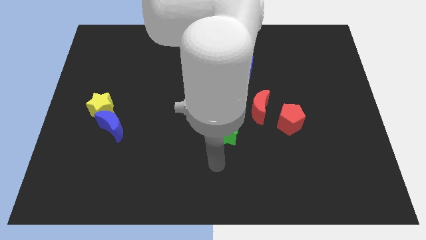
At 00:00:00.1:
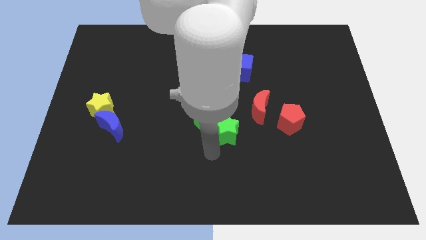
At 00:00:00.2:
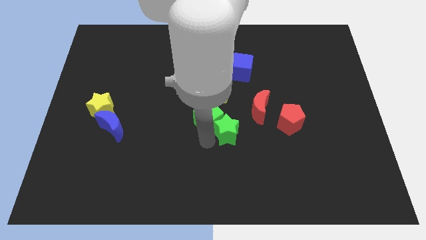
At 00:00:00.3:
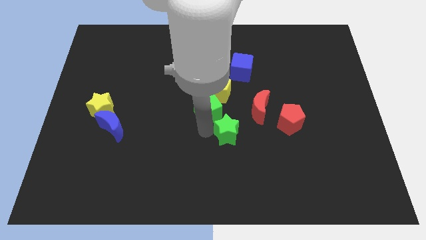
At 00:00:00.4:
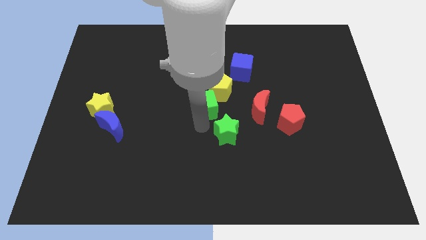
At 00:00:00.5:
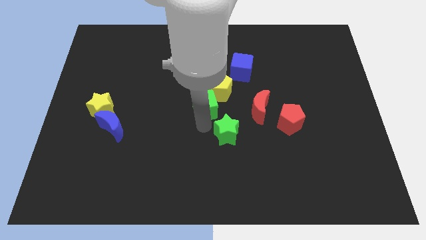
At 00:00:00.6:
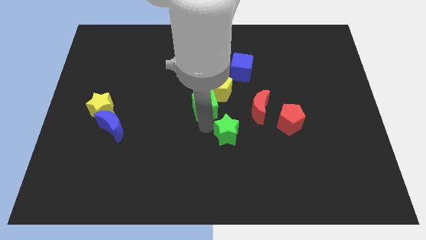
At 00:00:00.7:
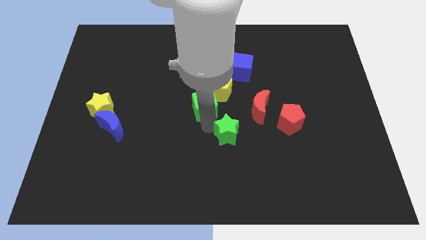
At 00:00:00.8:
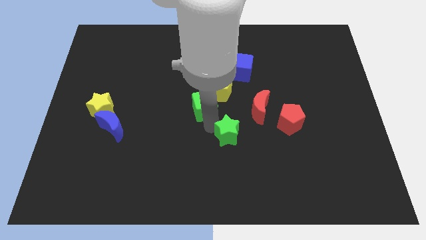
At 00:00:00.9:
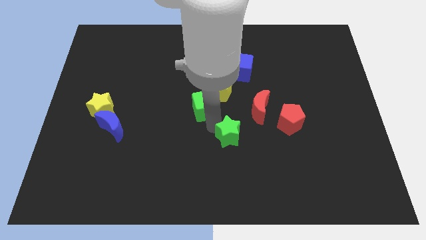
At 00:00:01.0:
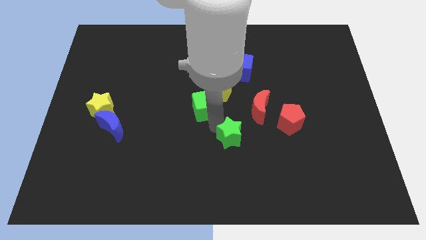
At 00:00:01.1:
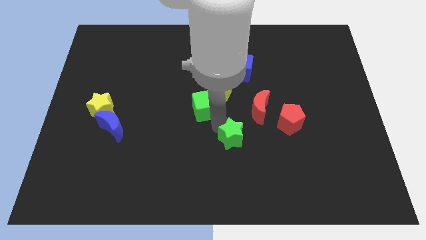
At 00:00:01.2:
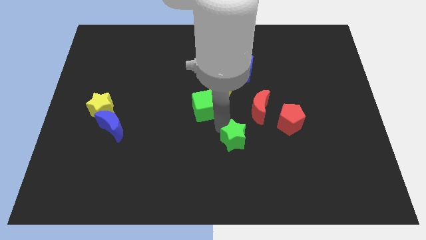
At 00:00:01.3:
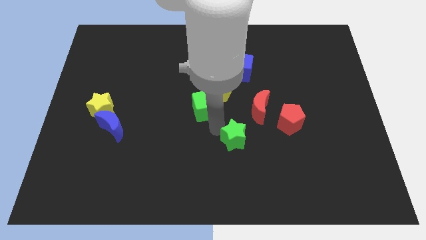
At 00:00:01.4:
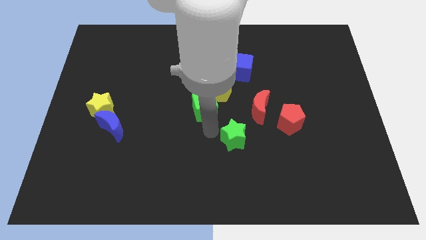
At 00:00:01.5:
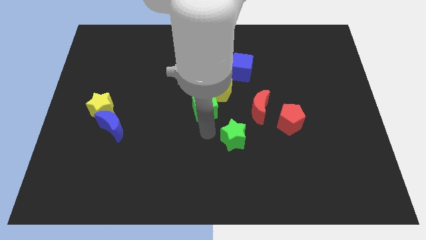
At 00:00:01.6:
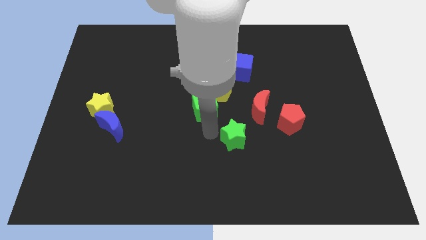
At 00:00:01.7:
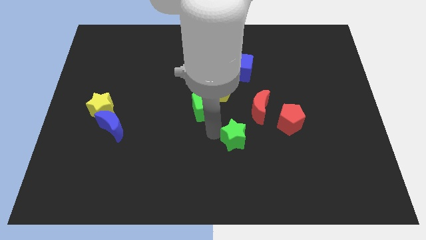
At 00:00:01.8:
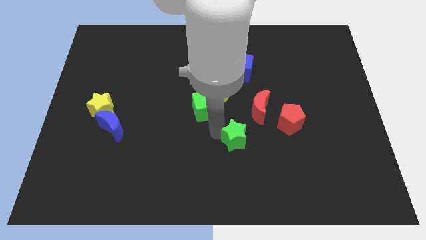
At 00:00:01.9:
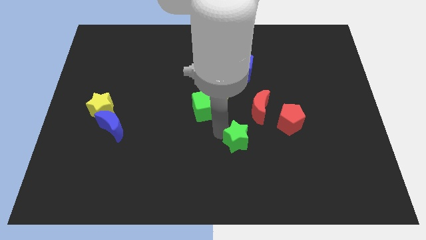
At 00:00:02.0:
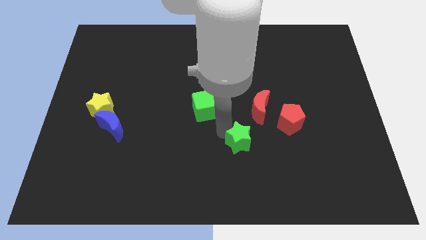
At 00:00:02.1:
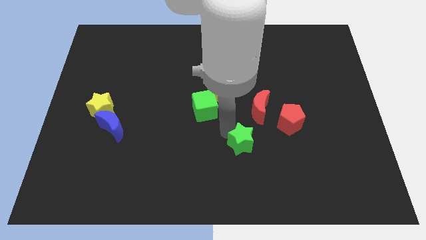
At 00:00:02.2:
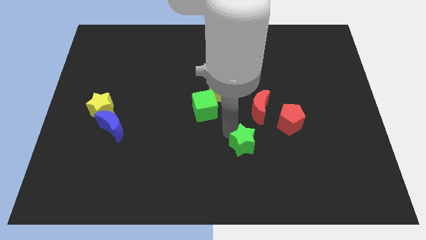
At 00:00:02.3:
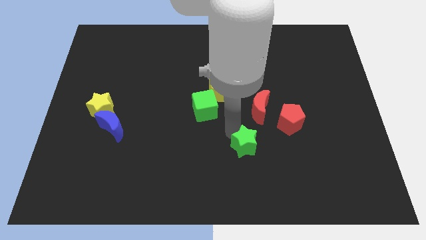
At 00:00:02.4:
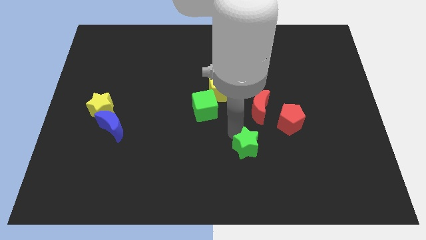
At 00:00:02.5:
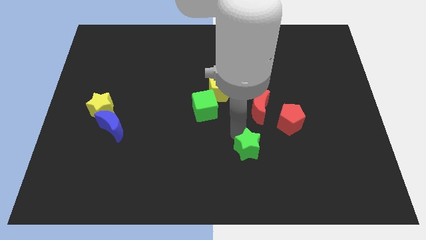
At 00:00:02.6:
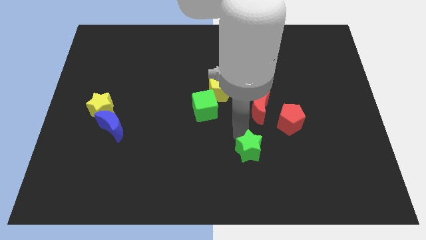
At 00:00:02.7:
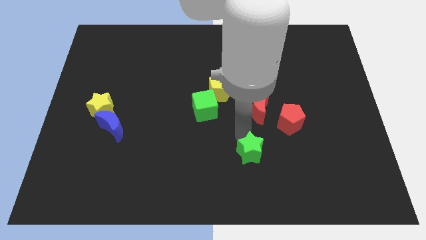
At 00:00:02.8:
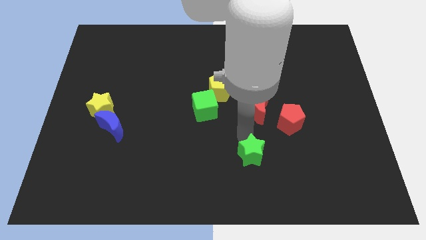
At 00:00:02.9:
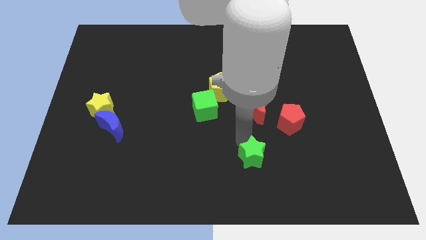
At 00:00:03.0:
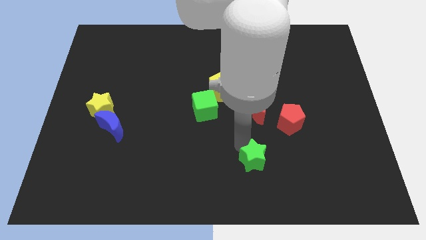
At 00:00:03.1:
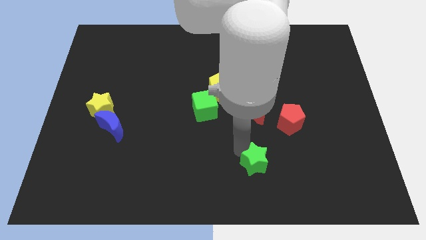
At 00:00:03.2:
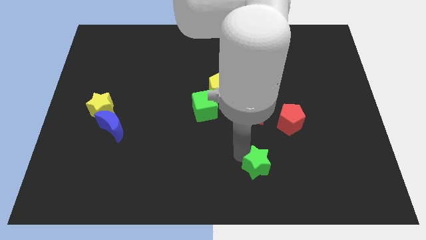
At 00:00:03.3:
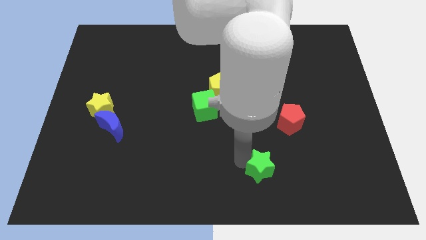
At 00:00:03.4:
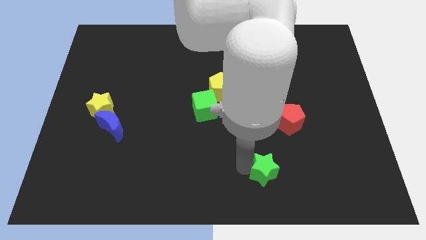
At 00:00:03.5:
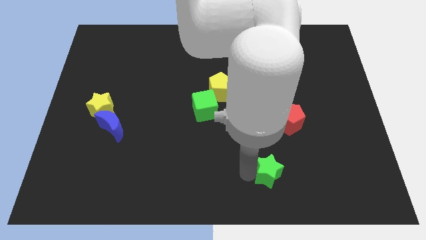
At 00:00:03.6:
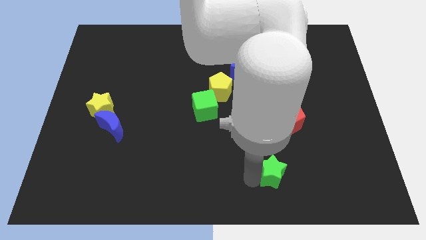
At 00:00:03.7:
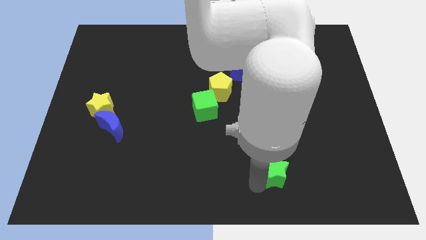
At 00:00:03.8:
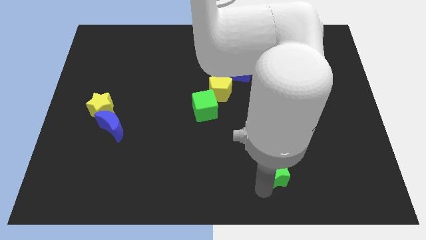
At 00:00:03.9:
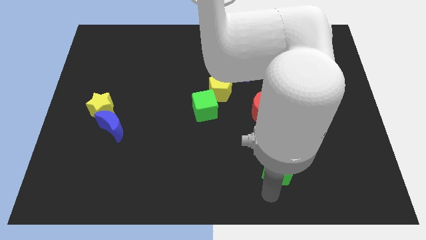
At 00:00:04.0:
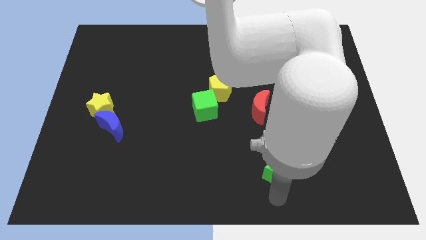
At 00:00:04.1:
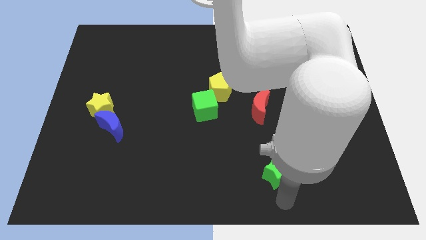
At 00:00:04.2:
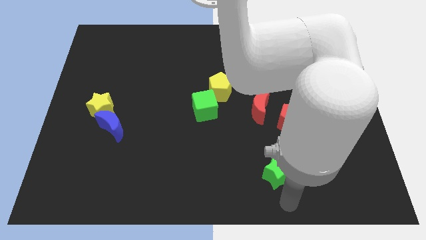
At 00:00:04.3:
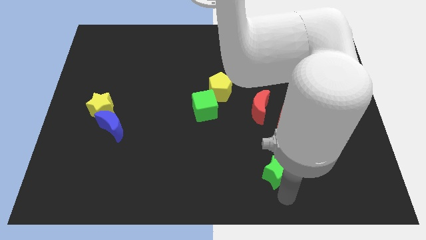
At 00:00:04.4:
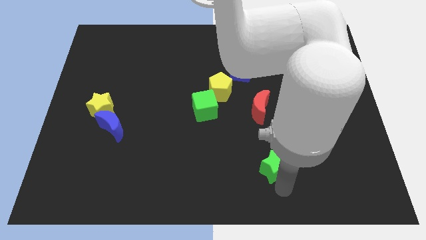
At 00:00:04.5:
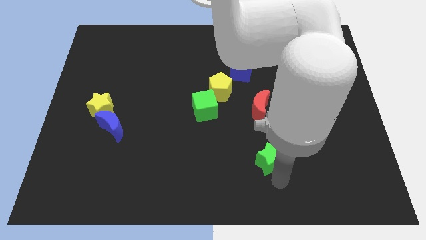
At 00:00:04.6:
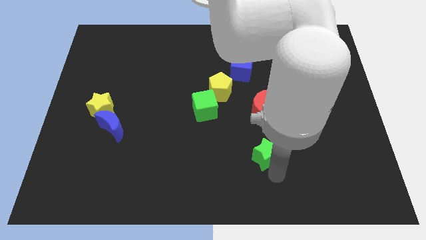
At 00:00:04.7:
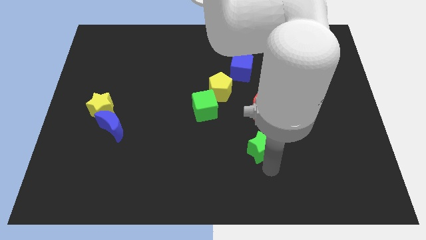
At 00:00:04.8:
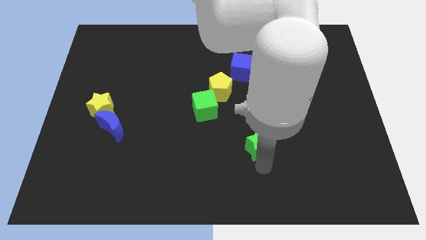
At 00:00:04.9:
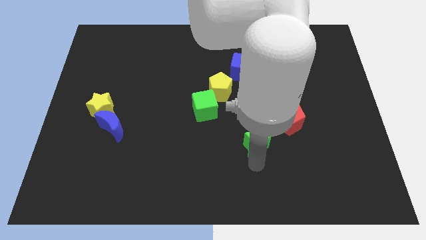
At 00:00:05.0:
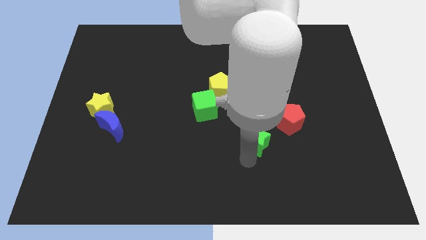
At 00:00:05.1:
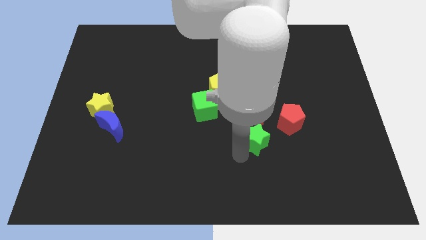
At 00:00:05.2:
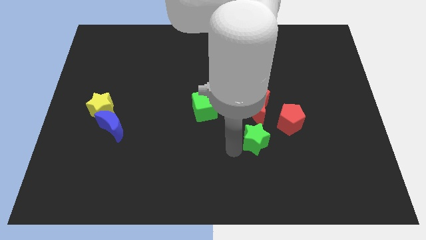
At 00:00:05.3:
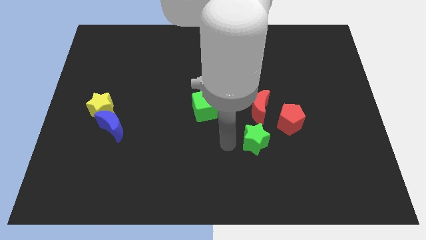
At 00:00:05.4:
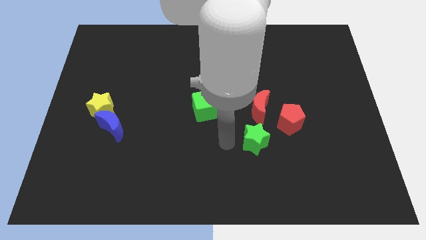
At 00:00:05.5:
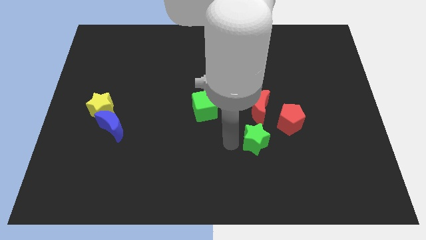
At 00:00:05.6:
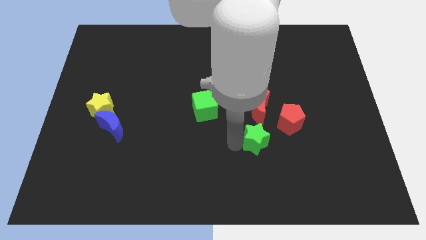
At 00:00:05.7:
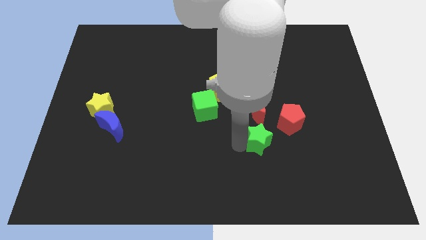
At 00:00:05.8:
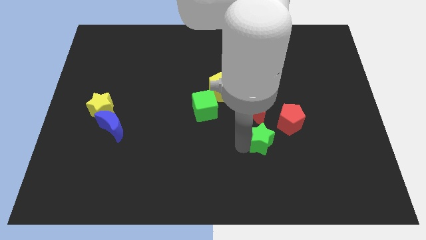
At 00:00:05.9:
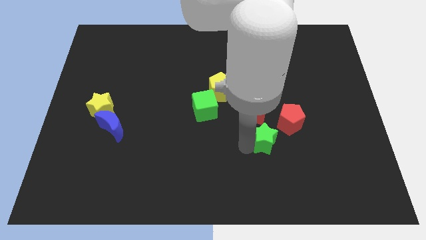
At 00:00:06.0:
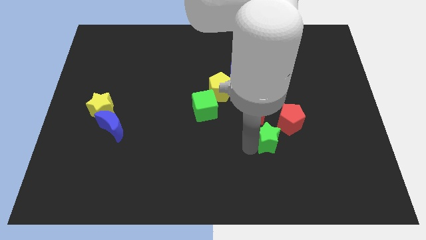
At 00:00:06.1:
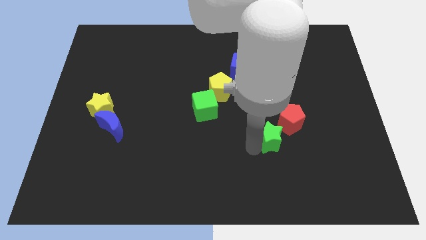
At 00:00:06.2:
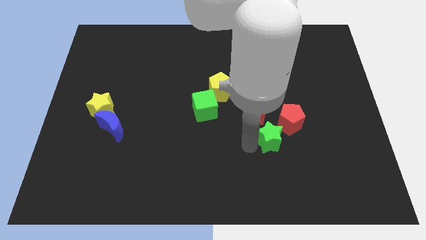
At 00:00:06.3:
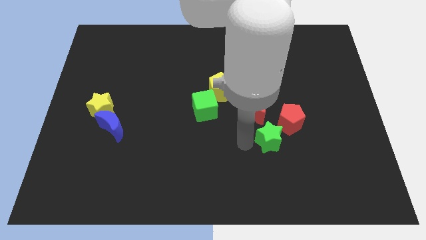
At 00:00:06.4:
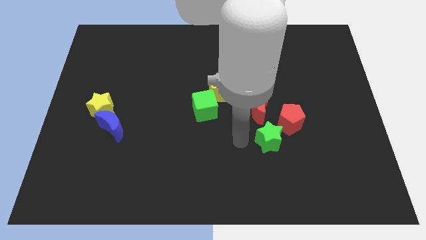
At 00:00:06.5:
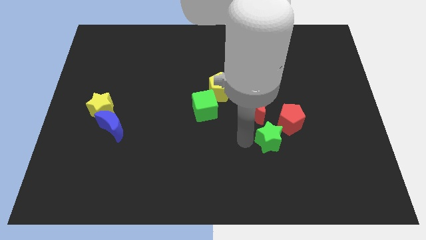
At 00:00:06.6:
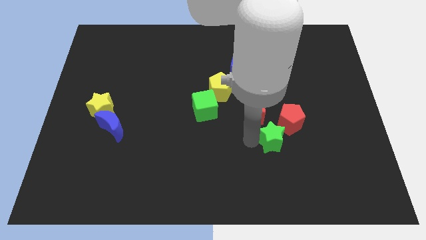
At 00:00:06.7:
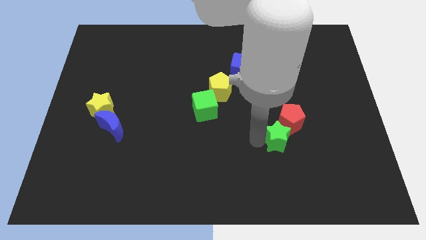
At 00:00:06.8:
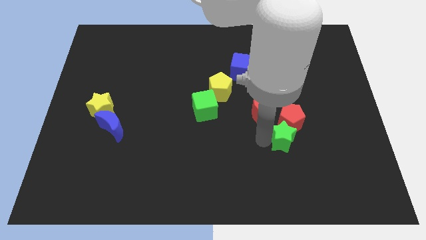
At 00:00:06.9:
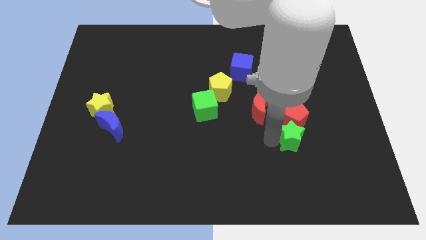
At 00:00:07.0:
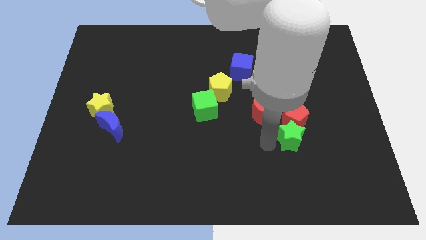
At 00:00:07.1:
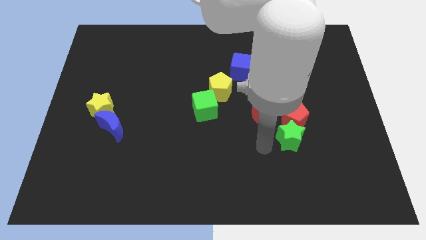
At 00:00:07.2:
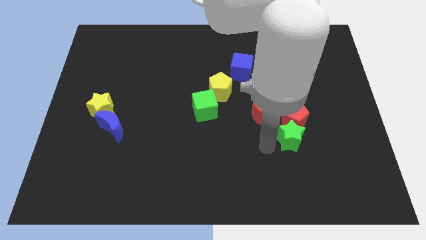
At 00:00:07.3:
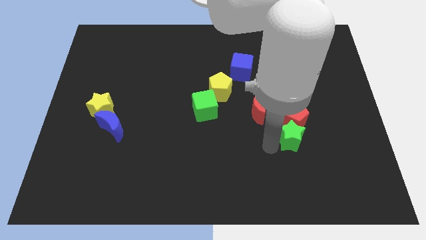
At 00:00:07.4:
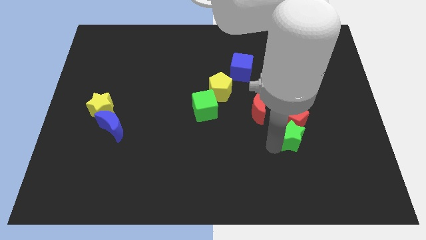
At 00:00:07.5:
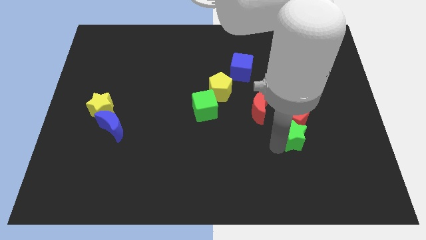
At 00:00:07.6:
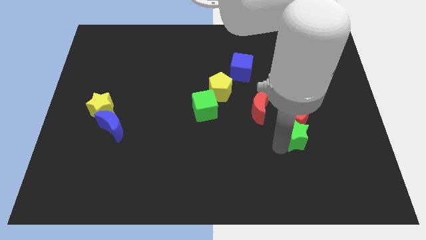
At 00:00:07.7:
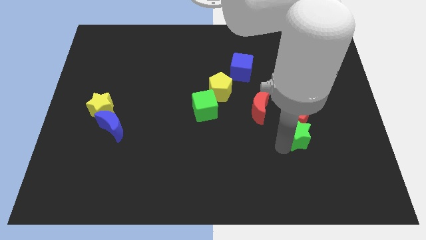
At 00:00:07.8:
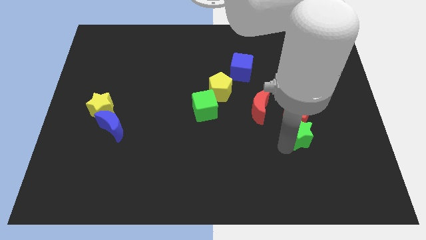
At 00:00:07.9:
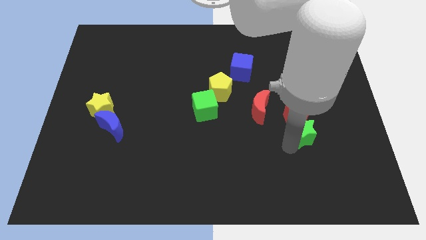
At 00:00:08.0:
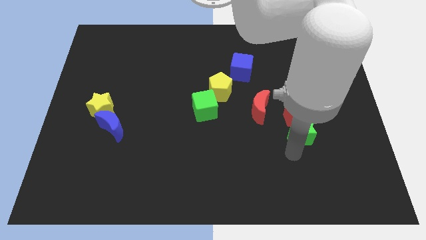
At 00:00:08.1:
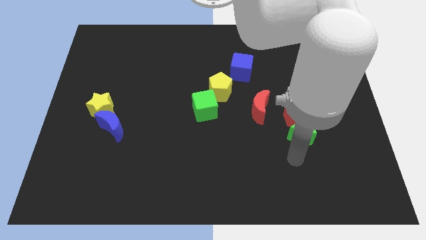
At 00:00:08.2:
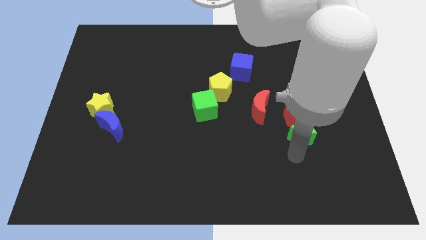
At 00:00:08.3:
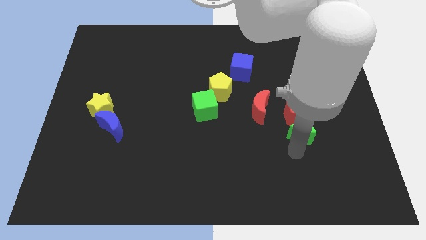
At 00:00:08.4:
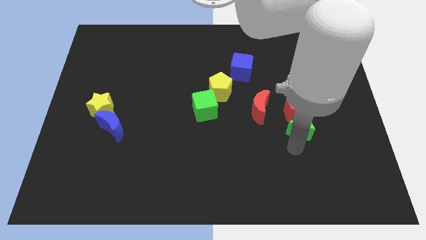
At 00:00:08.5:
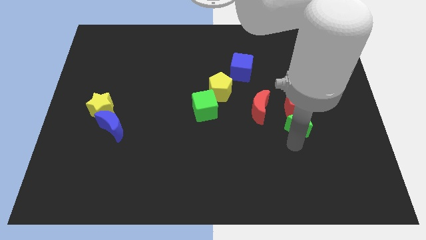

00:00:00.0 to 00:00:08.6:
slide the green star slightly diagonally up and right
